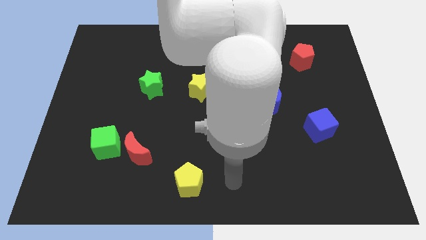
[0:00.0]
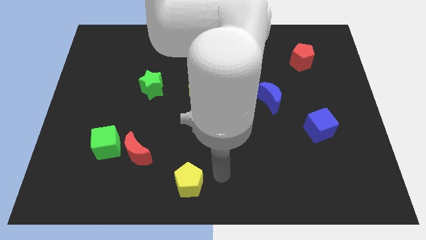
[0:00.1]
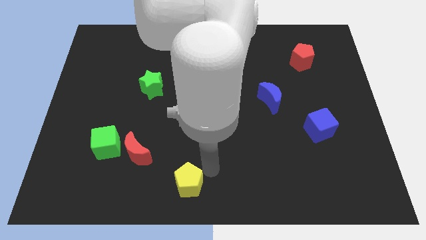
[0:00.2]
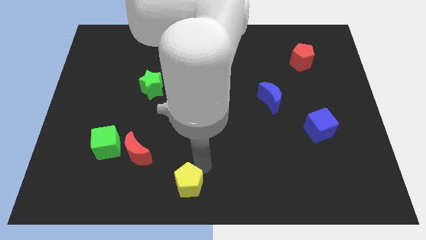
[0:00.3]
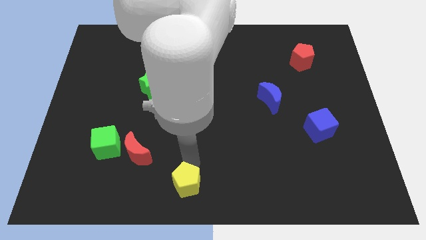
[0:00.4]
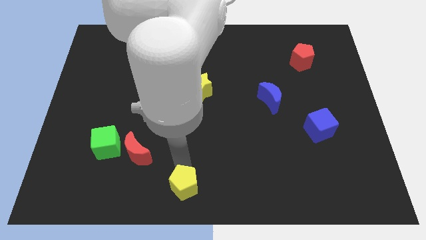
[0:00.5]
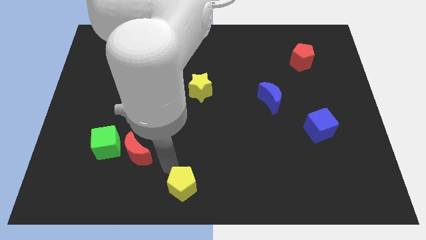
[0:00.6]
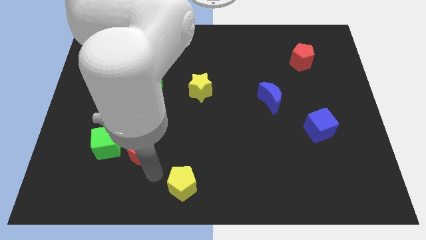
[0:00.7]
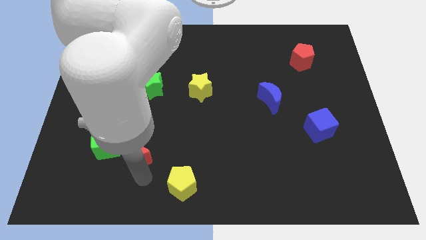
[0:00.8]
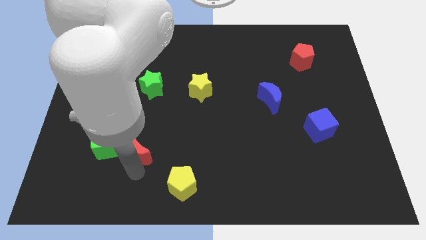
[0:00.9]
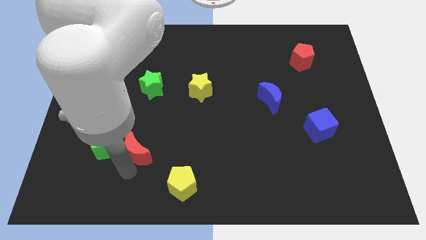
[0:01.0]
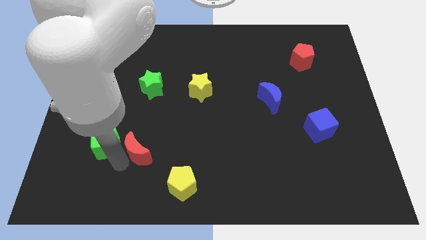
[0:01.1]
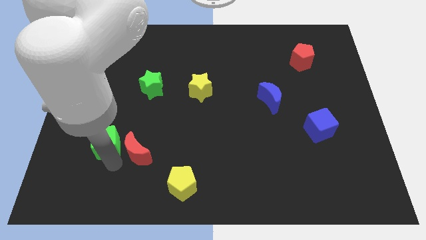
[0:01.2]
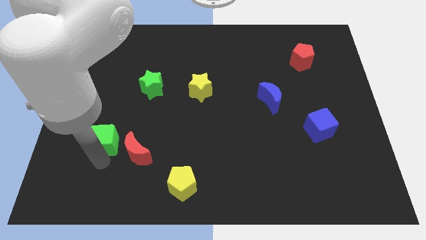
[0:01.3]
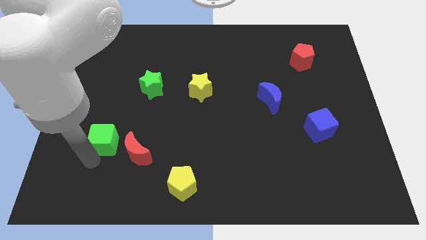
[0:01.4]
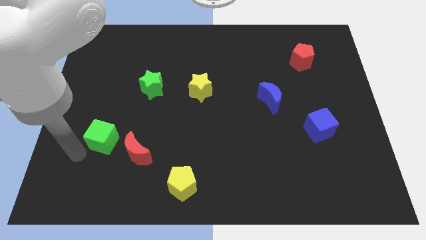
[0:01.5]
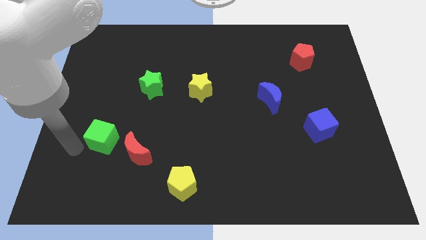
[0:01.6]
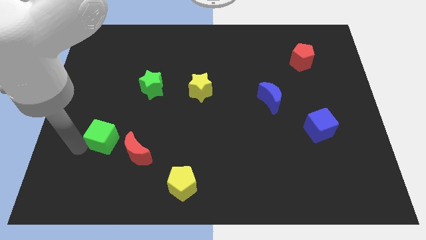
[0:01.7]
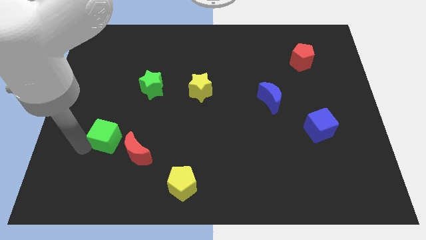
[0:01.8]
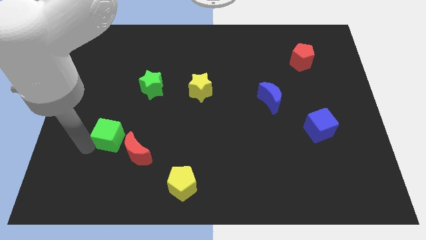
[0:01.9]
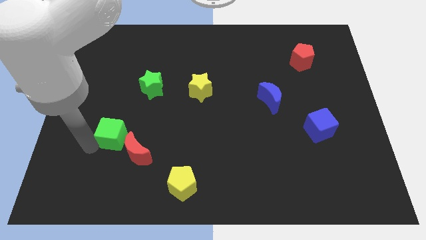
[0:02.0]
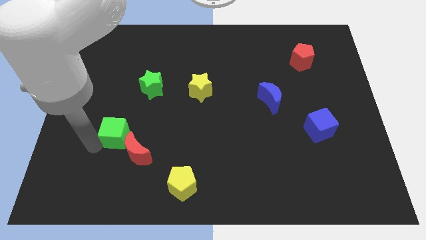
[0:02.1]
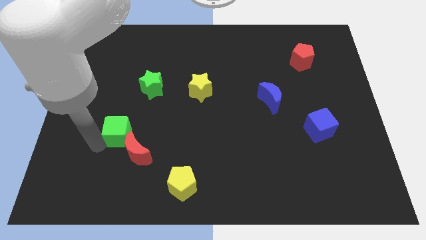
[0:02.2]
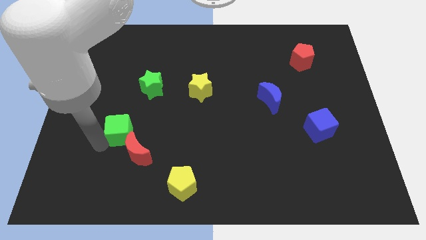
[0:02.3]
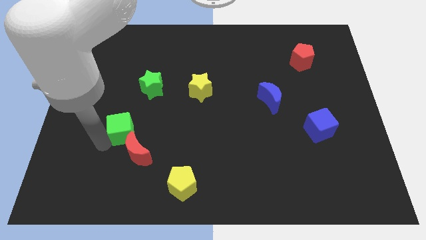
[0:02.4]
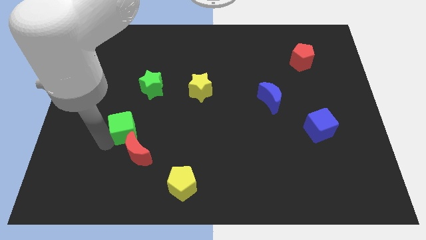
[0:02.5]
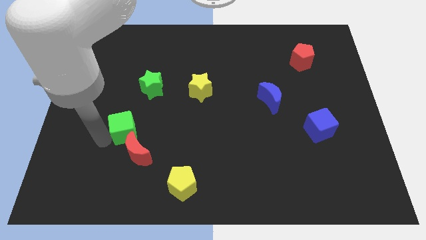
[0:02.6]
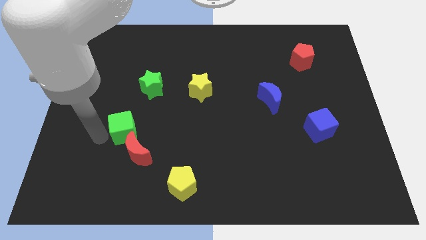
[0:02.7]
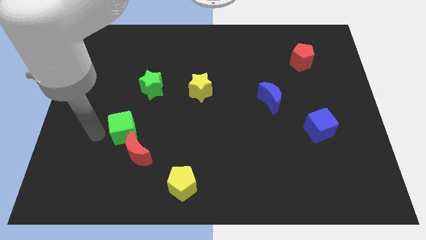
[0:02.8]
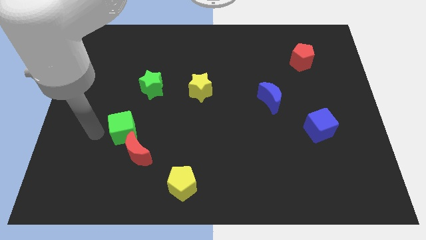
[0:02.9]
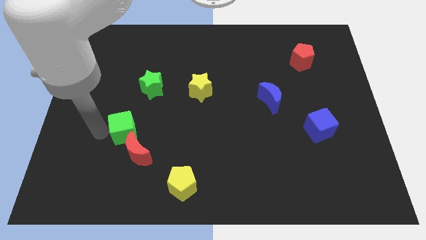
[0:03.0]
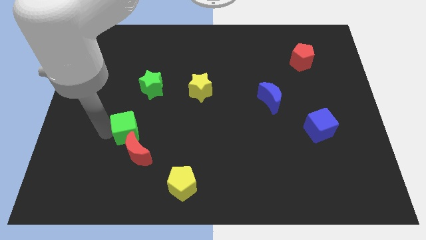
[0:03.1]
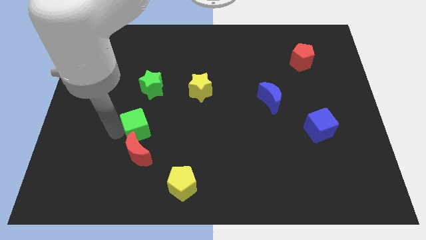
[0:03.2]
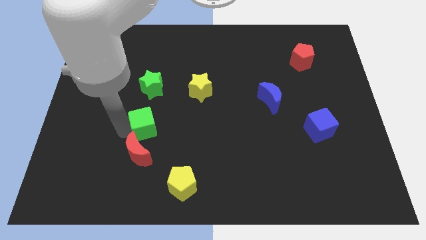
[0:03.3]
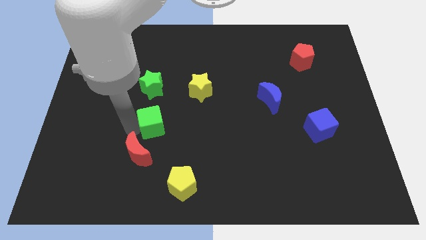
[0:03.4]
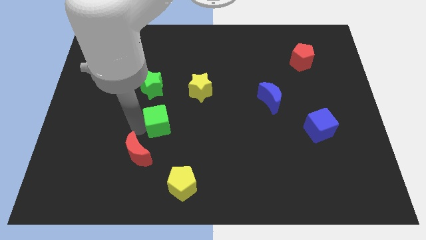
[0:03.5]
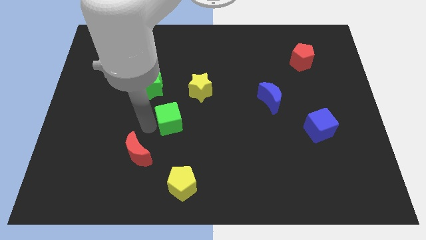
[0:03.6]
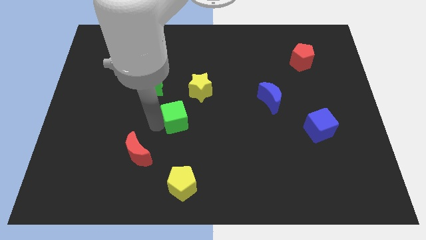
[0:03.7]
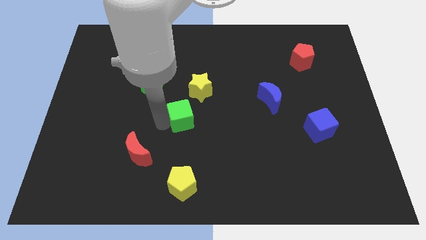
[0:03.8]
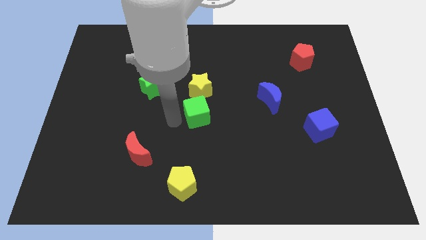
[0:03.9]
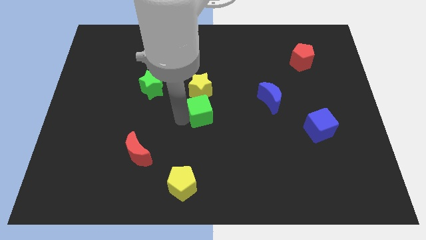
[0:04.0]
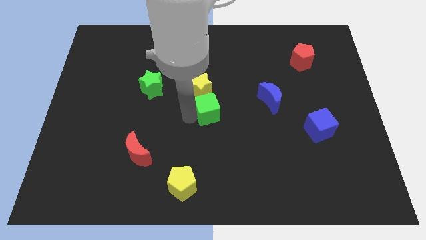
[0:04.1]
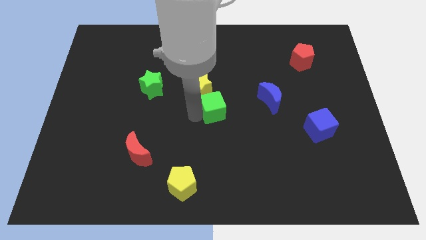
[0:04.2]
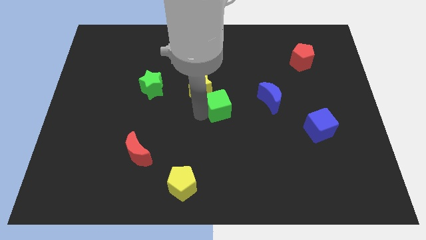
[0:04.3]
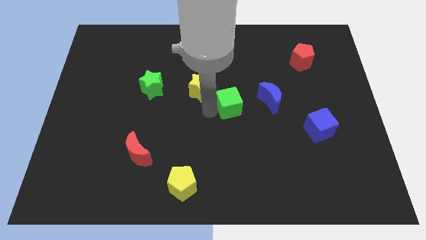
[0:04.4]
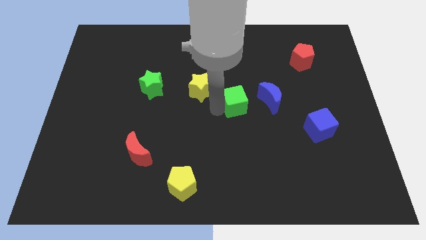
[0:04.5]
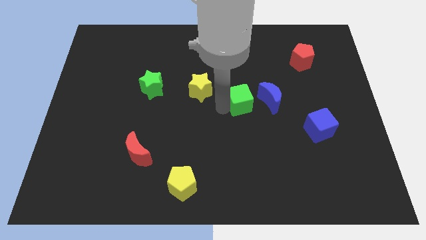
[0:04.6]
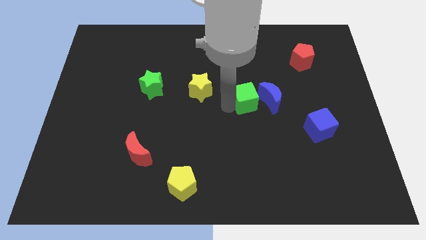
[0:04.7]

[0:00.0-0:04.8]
slide the green cube to the blue moon

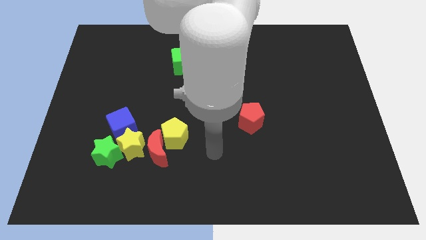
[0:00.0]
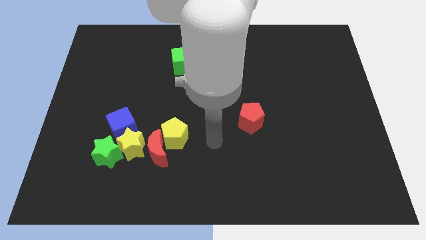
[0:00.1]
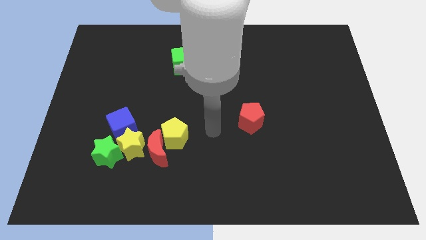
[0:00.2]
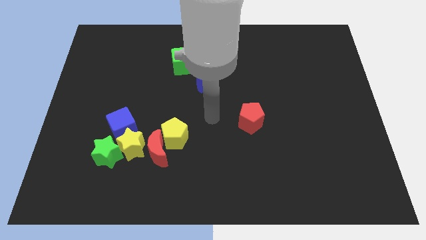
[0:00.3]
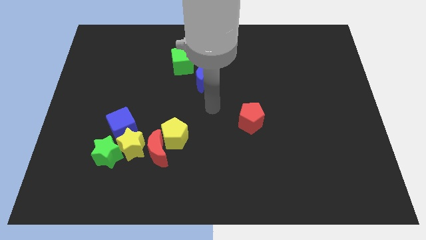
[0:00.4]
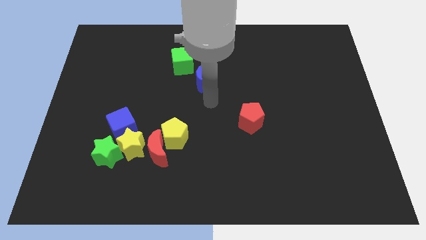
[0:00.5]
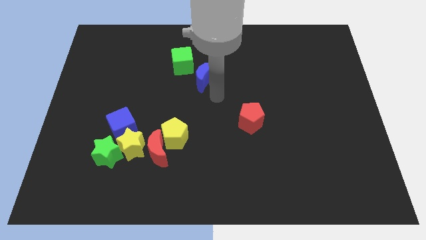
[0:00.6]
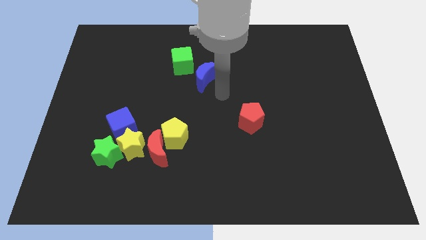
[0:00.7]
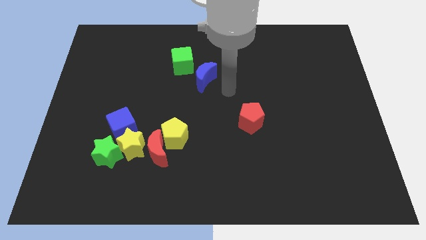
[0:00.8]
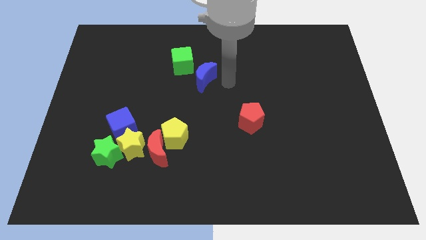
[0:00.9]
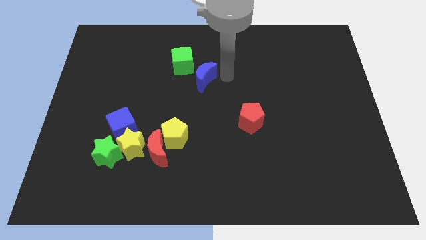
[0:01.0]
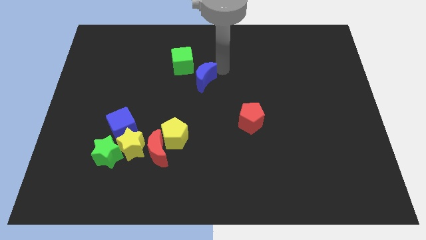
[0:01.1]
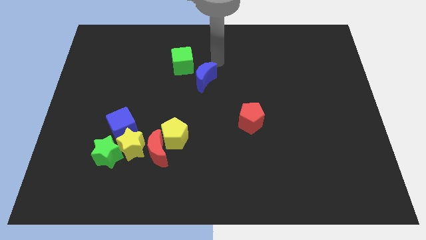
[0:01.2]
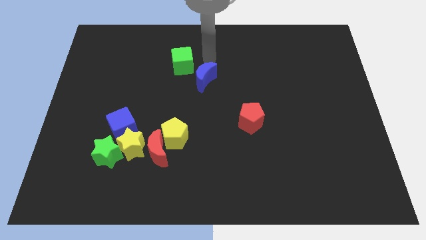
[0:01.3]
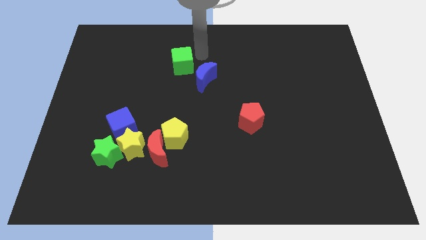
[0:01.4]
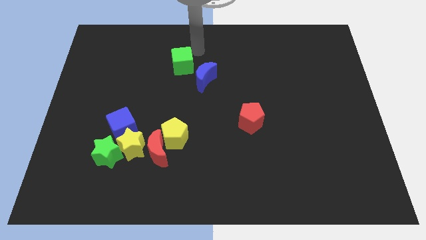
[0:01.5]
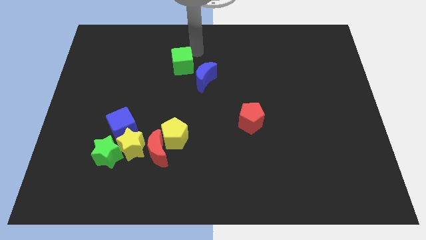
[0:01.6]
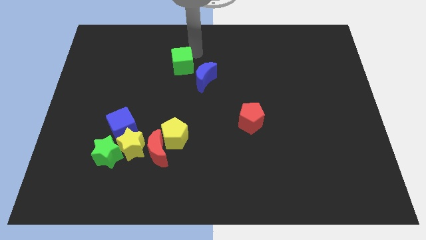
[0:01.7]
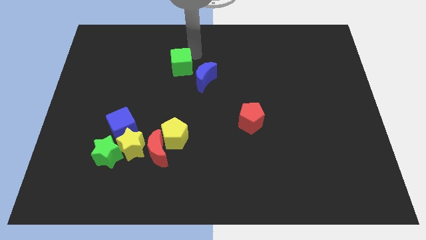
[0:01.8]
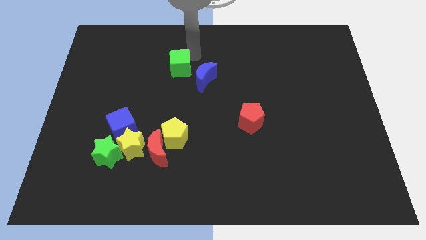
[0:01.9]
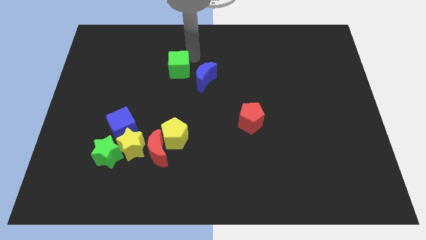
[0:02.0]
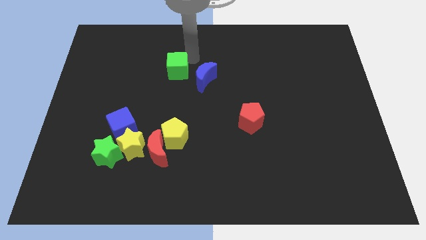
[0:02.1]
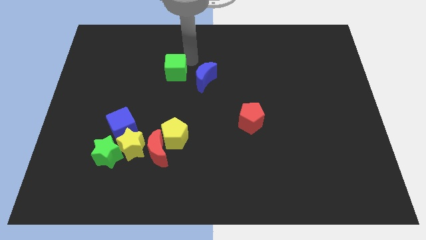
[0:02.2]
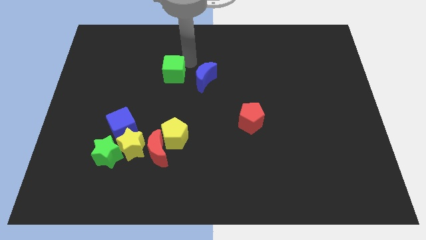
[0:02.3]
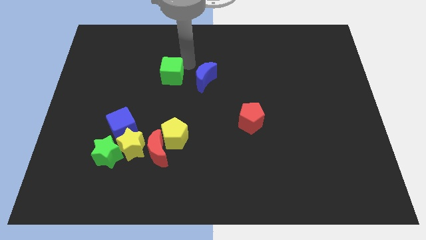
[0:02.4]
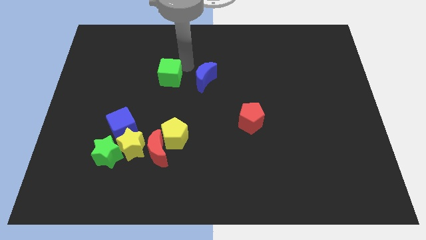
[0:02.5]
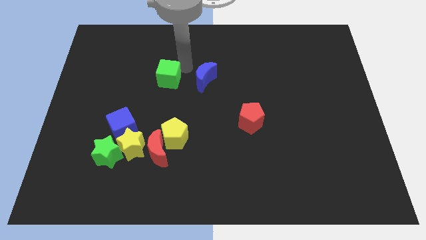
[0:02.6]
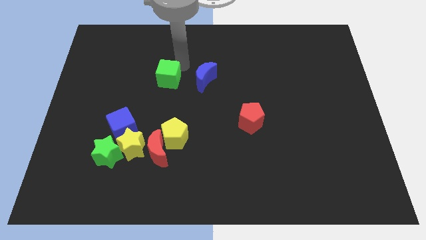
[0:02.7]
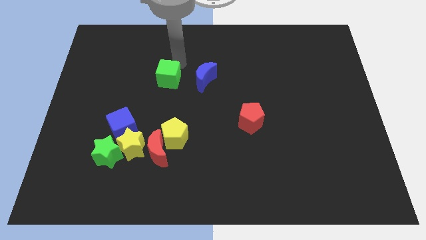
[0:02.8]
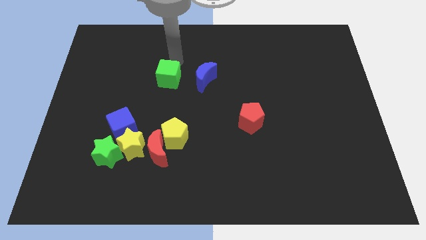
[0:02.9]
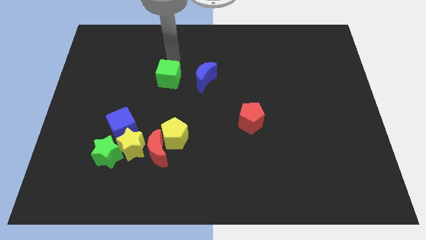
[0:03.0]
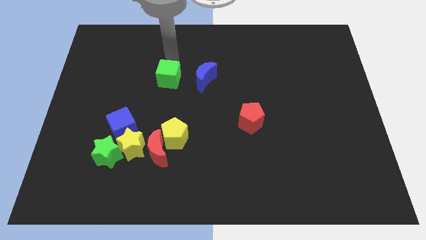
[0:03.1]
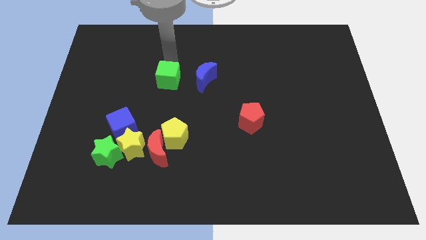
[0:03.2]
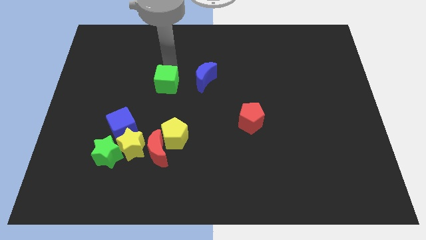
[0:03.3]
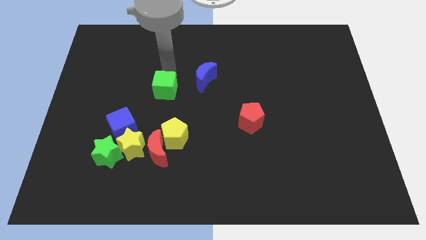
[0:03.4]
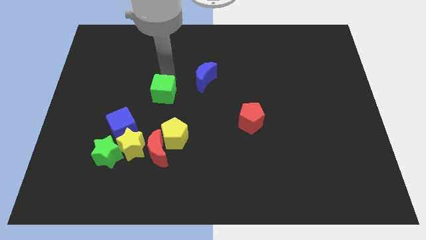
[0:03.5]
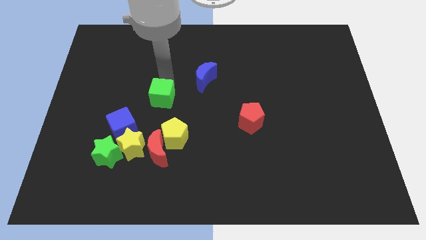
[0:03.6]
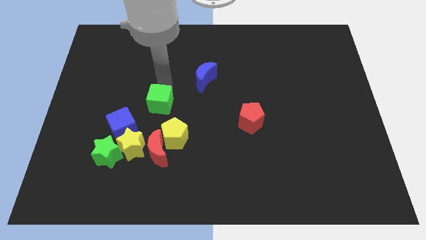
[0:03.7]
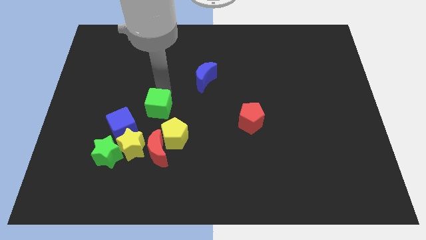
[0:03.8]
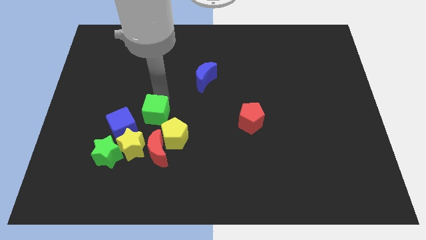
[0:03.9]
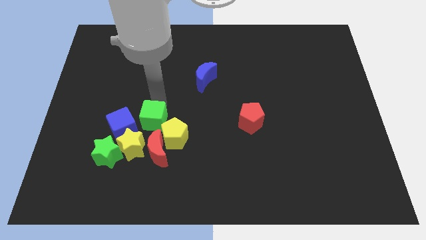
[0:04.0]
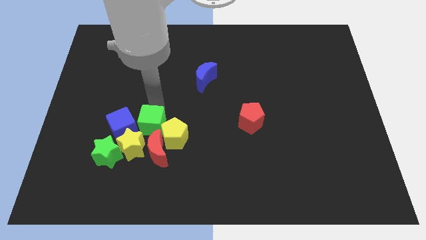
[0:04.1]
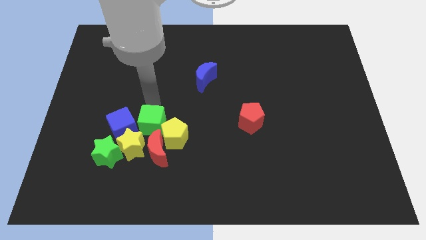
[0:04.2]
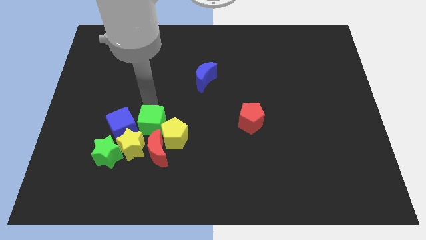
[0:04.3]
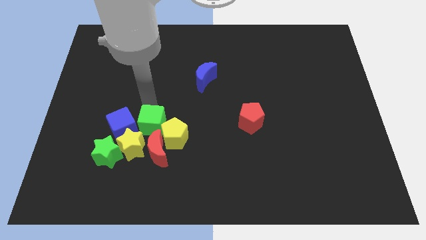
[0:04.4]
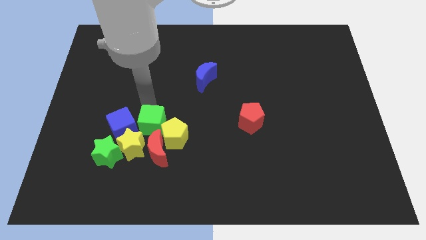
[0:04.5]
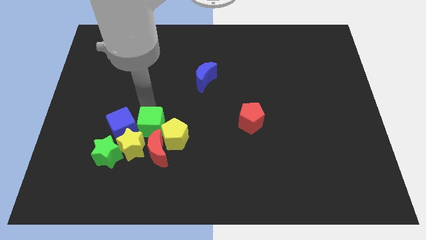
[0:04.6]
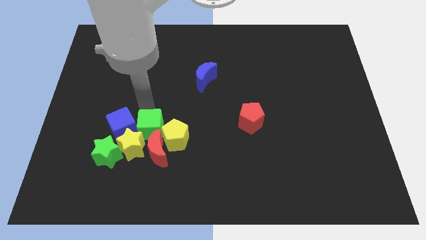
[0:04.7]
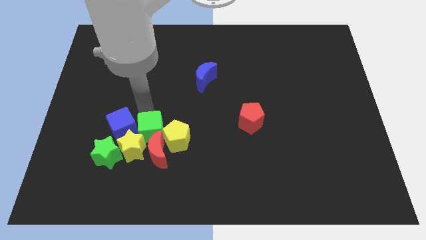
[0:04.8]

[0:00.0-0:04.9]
push the green cube towards the red moon
